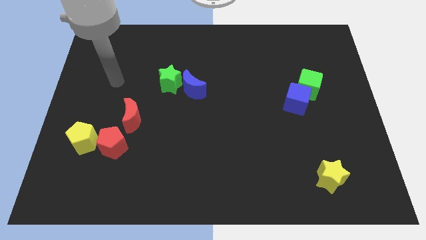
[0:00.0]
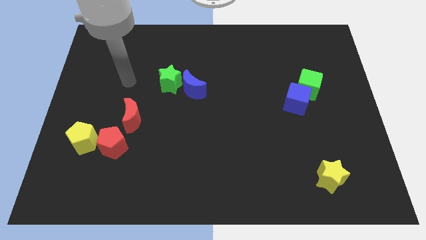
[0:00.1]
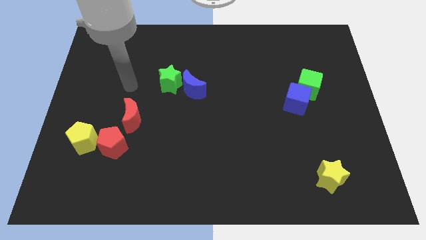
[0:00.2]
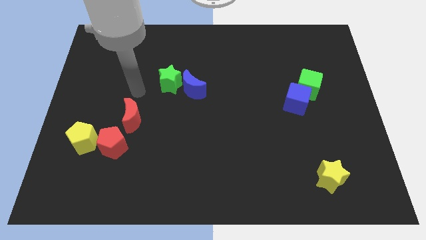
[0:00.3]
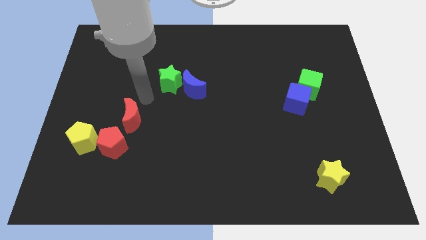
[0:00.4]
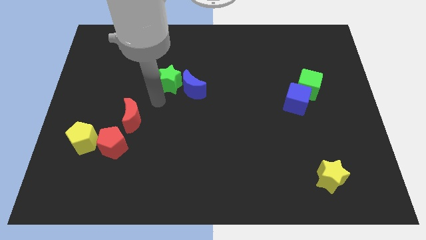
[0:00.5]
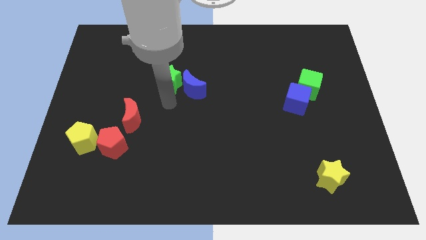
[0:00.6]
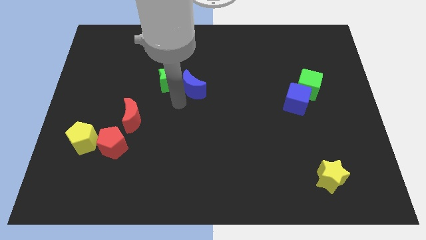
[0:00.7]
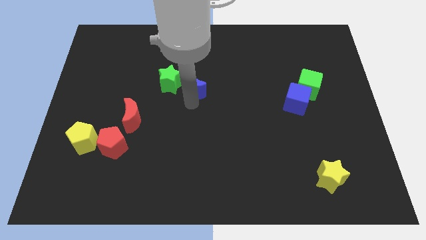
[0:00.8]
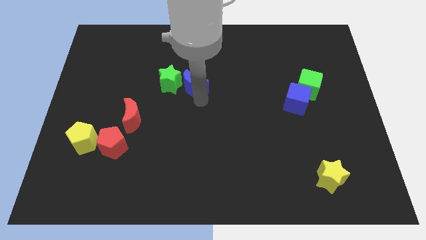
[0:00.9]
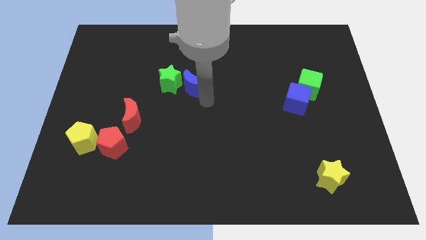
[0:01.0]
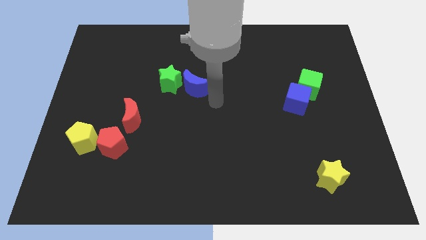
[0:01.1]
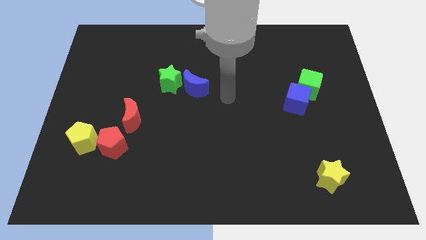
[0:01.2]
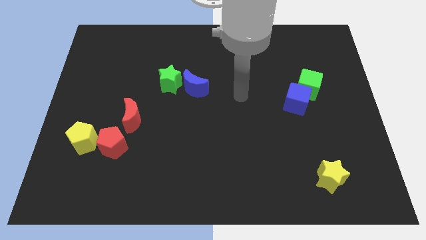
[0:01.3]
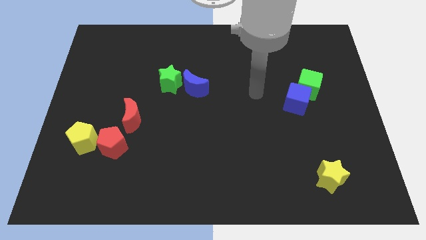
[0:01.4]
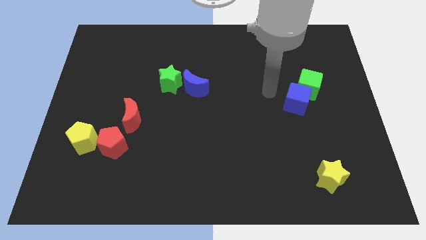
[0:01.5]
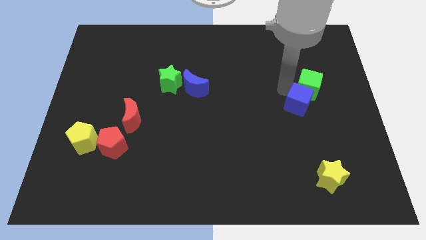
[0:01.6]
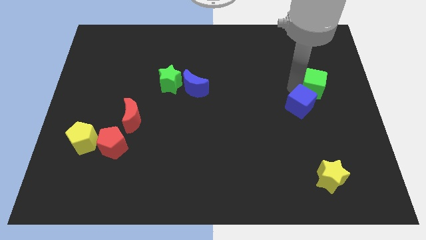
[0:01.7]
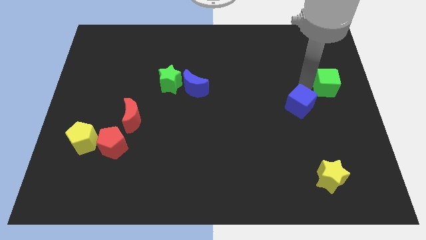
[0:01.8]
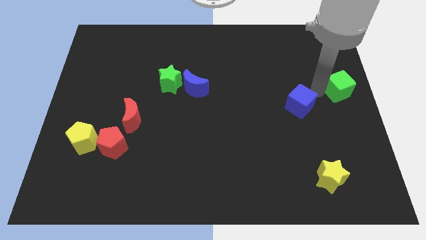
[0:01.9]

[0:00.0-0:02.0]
move the blue cube away from the green cube

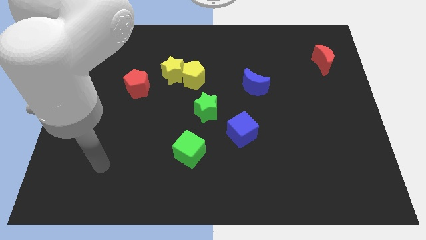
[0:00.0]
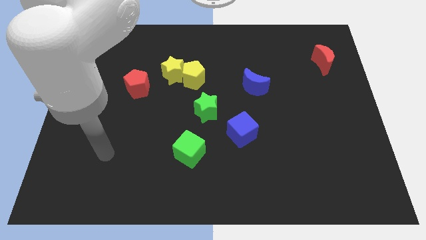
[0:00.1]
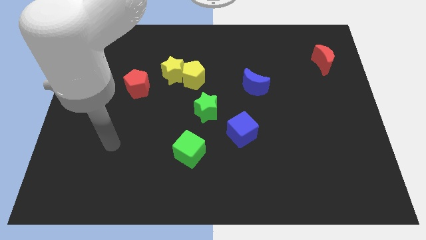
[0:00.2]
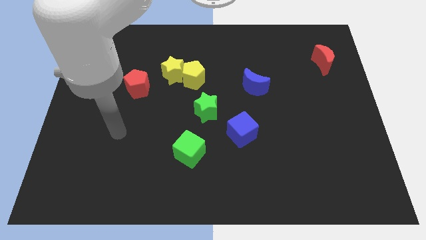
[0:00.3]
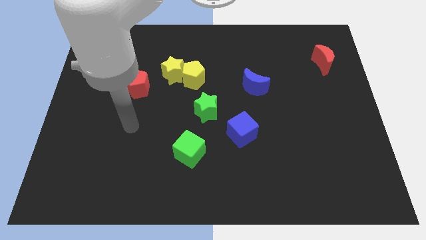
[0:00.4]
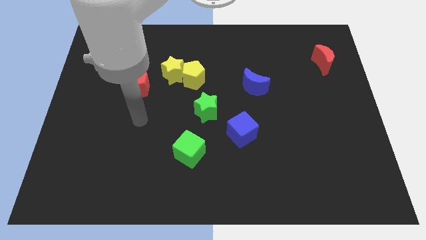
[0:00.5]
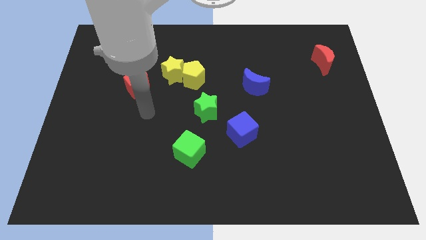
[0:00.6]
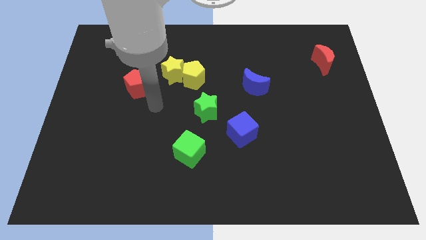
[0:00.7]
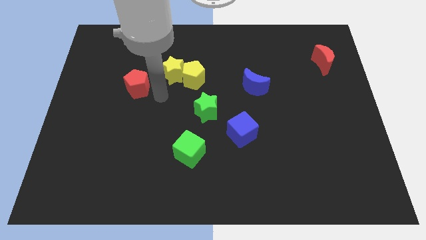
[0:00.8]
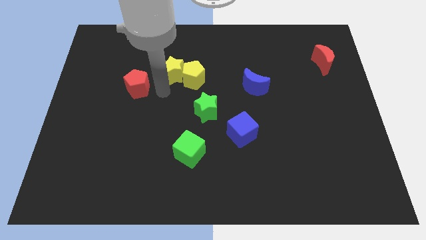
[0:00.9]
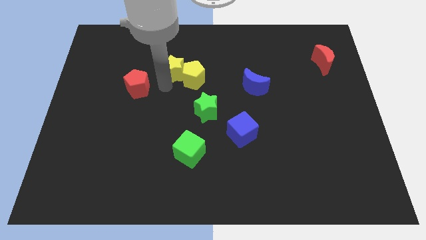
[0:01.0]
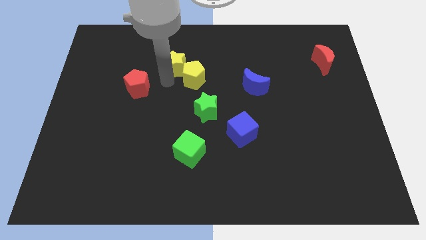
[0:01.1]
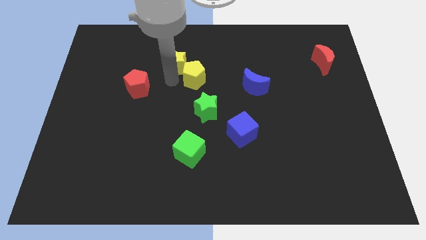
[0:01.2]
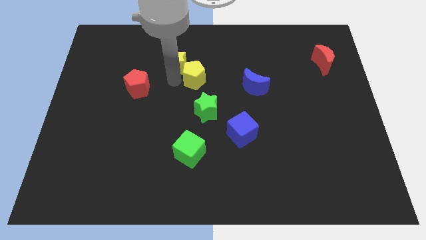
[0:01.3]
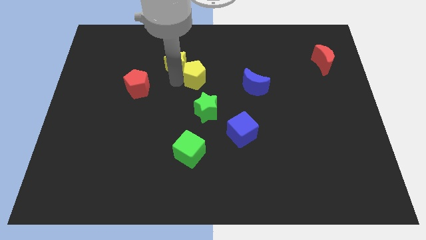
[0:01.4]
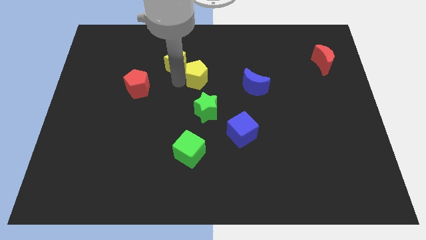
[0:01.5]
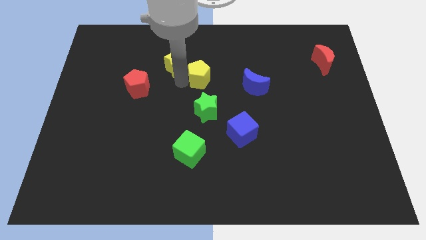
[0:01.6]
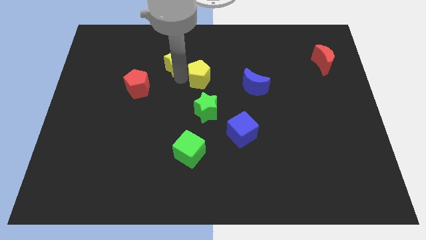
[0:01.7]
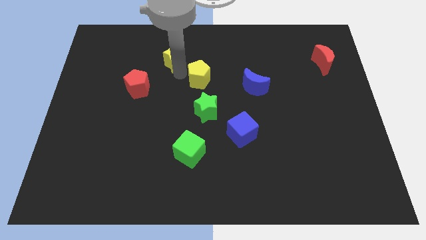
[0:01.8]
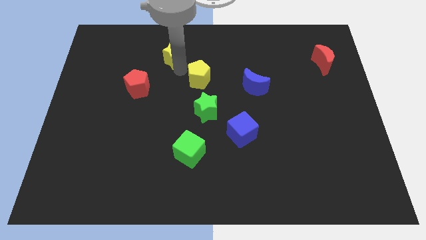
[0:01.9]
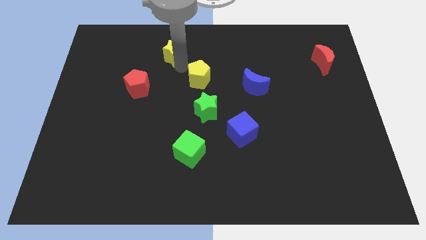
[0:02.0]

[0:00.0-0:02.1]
move the yellow pentagon away from the yellow star

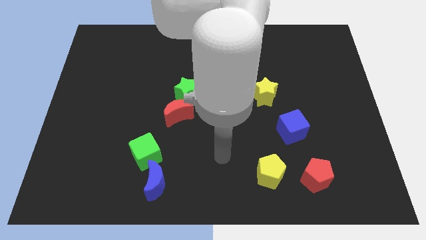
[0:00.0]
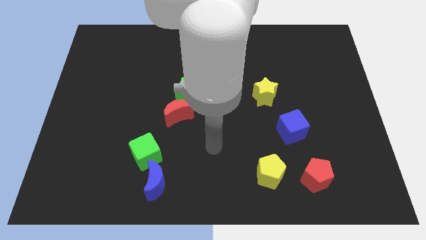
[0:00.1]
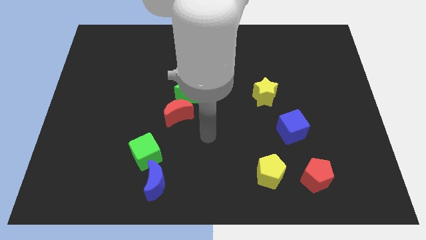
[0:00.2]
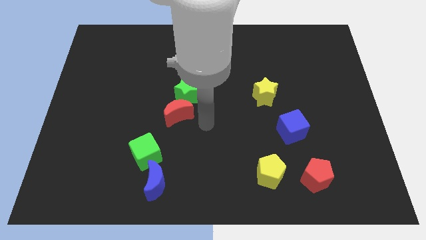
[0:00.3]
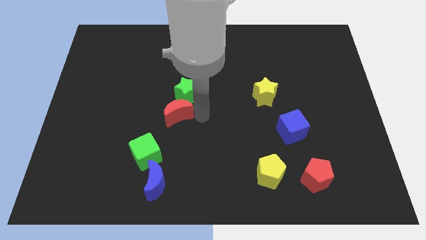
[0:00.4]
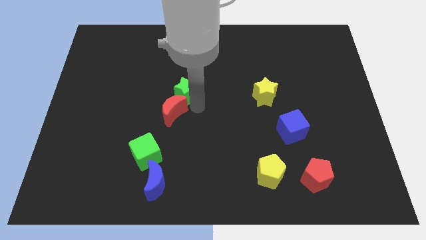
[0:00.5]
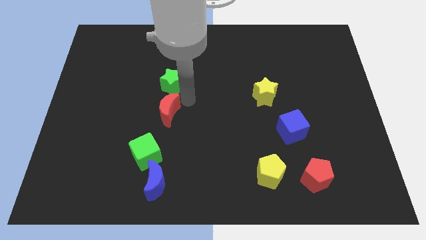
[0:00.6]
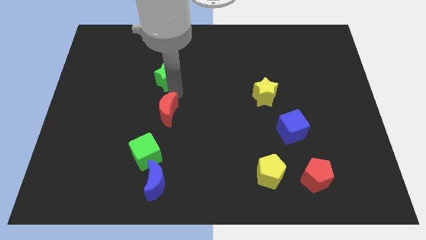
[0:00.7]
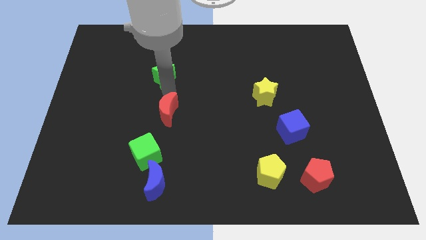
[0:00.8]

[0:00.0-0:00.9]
move the red moon away from the green star

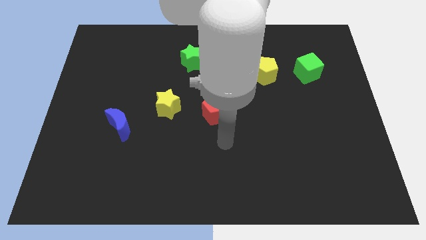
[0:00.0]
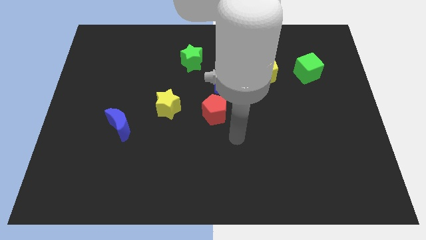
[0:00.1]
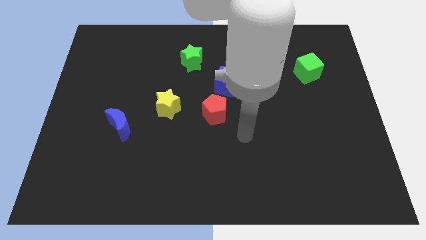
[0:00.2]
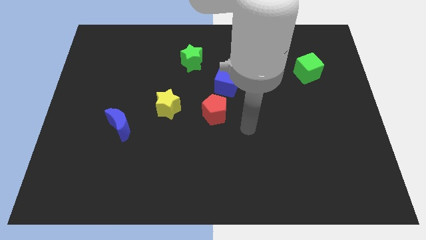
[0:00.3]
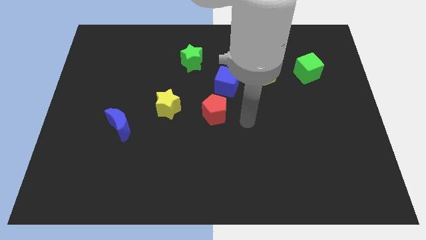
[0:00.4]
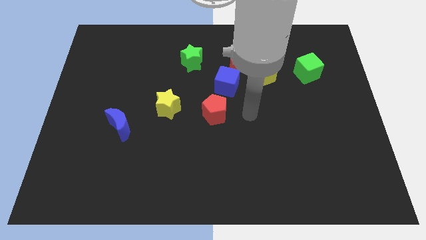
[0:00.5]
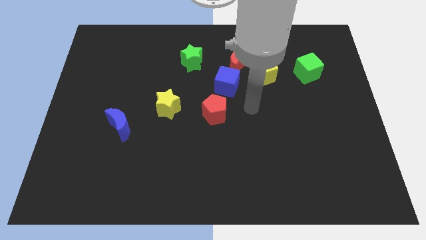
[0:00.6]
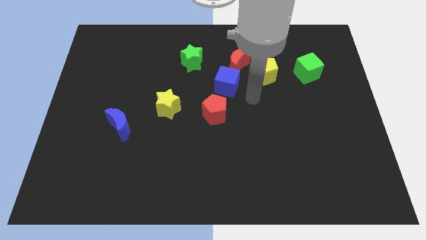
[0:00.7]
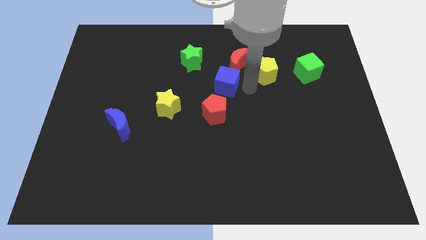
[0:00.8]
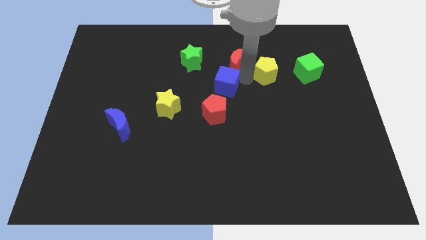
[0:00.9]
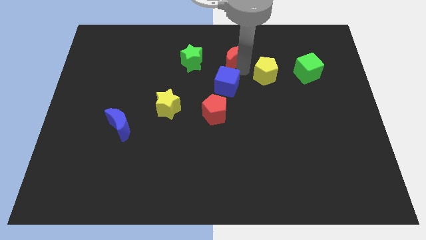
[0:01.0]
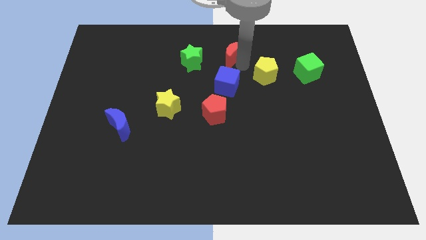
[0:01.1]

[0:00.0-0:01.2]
separate the yellow pentagon from the red moon

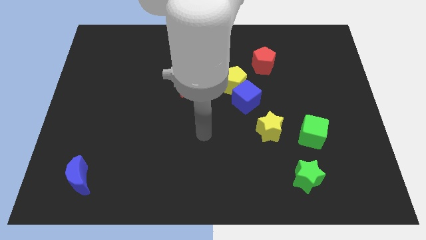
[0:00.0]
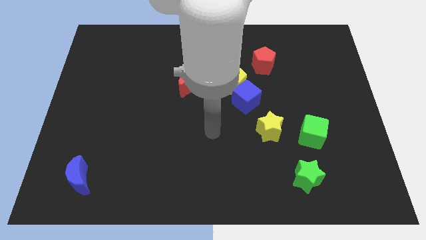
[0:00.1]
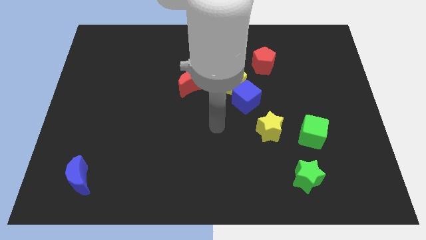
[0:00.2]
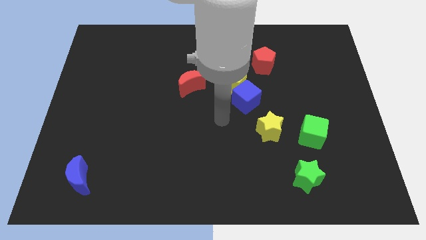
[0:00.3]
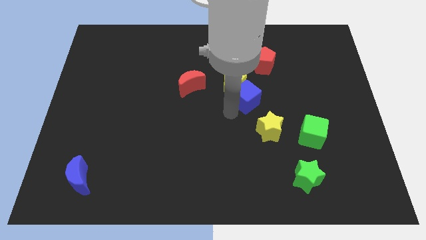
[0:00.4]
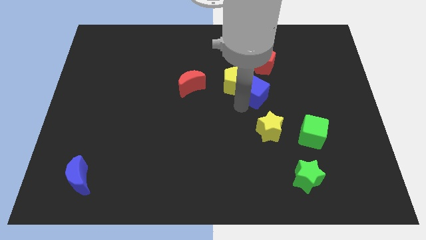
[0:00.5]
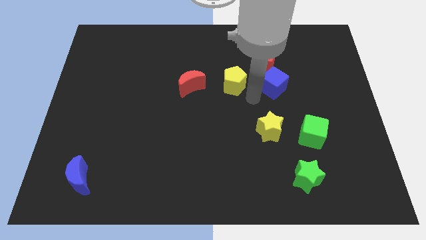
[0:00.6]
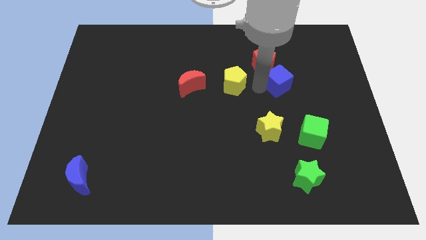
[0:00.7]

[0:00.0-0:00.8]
move the yellow pentagon away from the blue cube

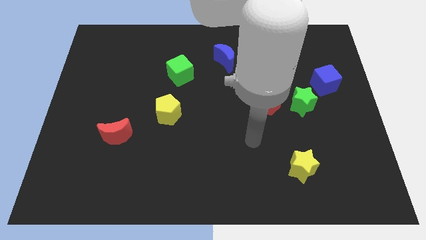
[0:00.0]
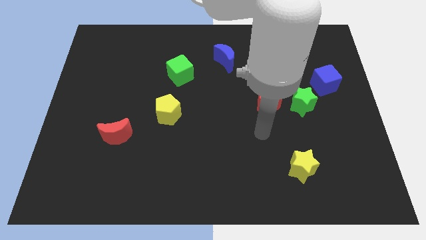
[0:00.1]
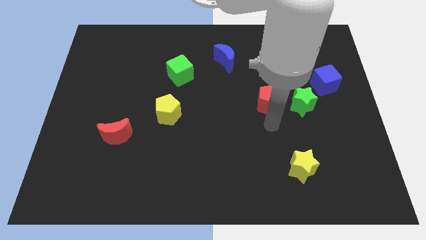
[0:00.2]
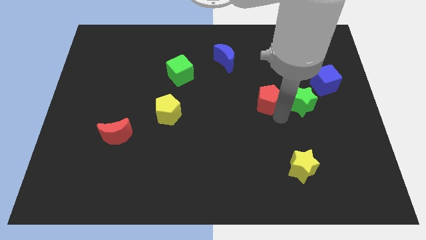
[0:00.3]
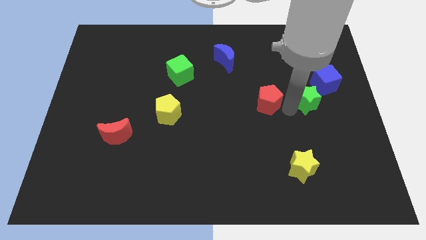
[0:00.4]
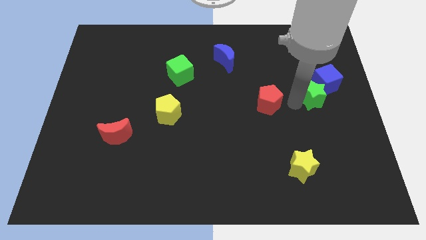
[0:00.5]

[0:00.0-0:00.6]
pull the red pentagon apart from the green star

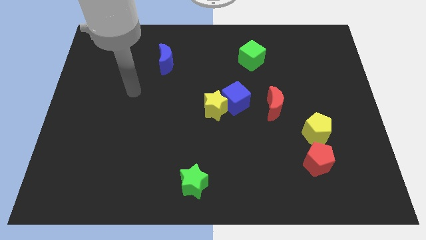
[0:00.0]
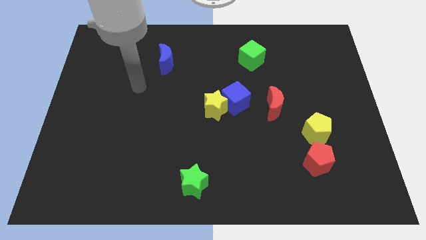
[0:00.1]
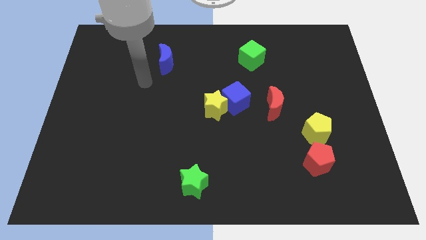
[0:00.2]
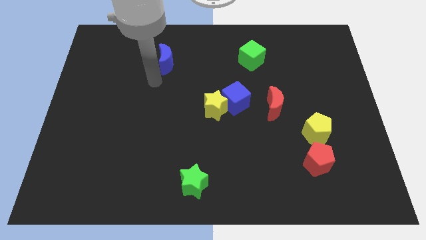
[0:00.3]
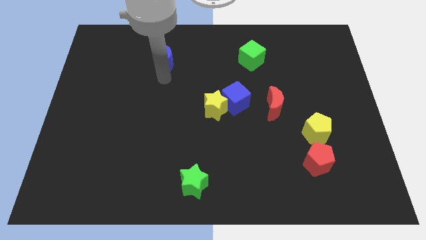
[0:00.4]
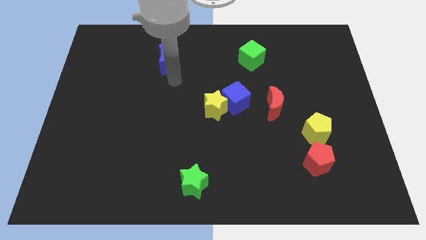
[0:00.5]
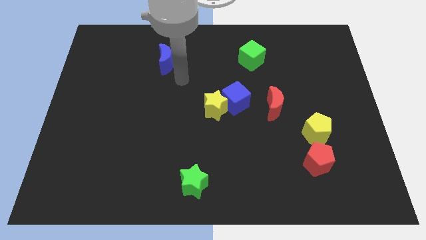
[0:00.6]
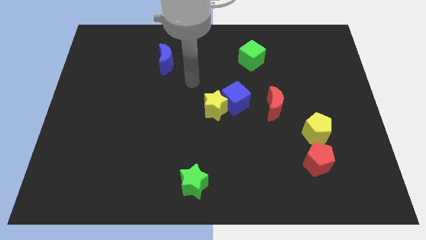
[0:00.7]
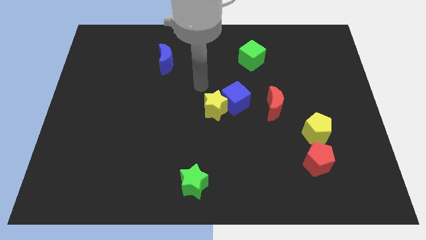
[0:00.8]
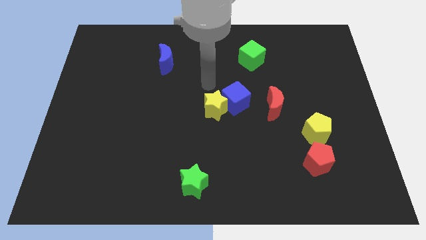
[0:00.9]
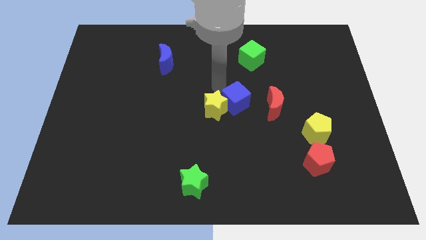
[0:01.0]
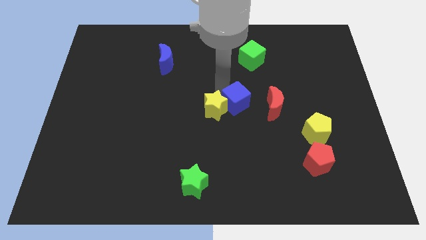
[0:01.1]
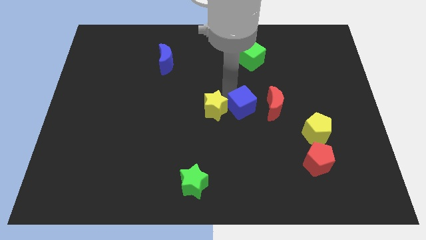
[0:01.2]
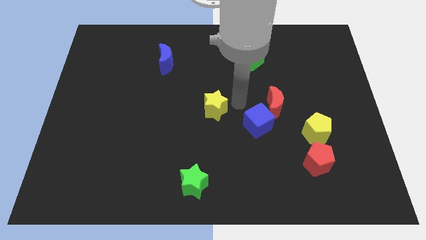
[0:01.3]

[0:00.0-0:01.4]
separate the yellow star from the blue cube

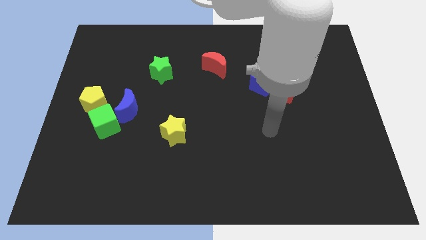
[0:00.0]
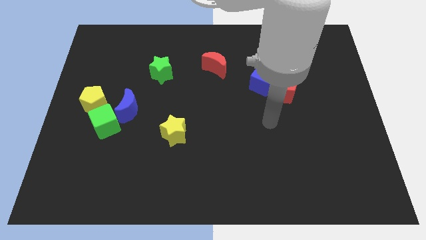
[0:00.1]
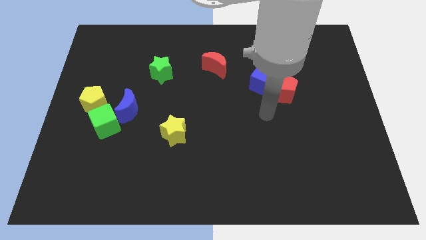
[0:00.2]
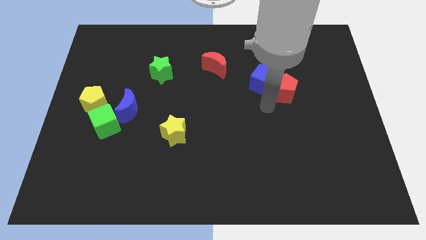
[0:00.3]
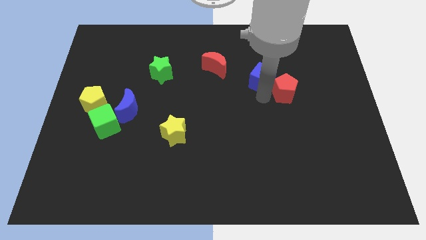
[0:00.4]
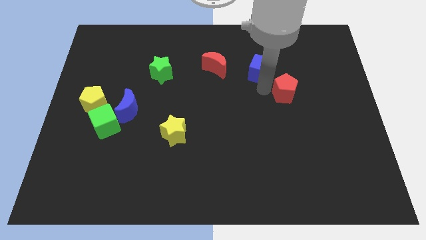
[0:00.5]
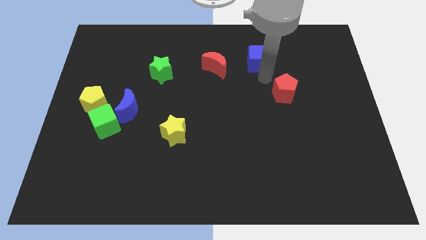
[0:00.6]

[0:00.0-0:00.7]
move the red pentagon away from the blue cube
